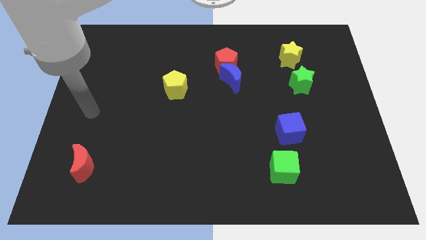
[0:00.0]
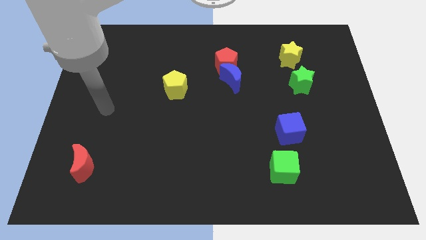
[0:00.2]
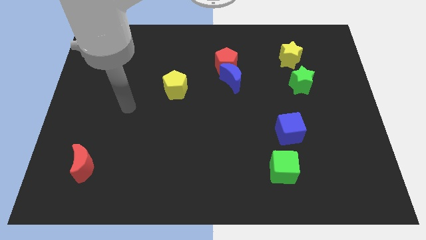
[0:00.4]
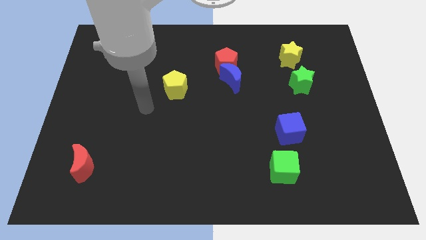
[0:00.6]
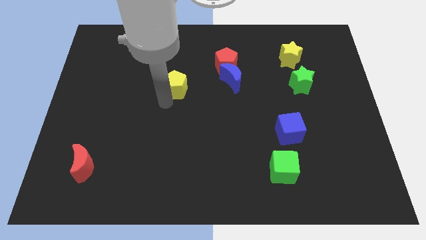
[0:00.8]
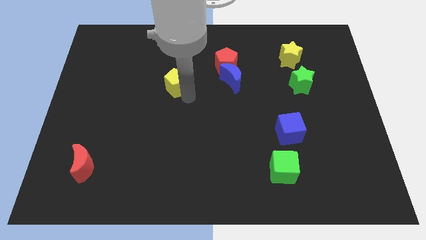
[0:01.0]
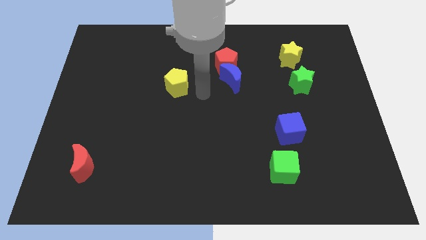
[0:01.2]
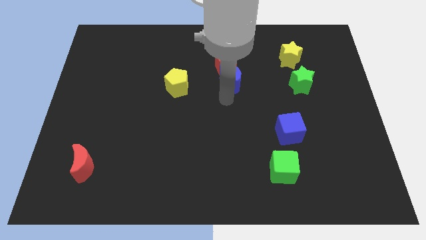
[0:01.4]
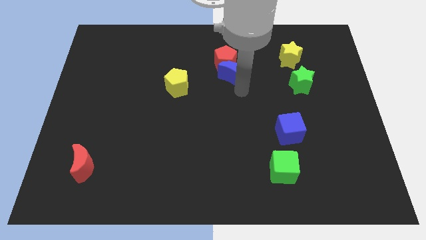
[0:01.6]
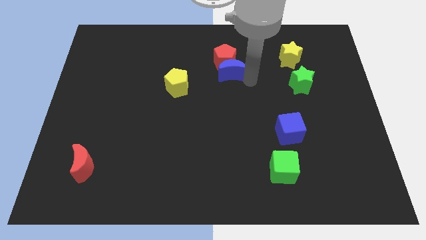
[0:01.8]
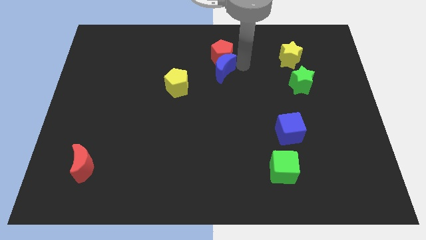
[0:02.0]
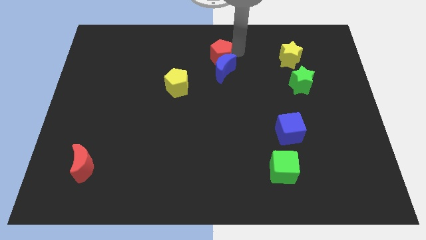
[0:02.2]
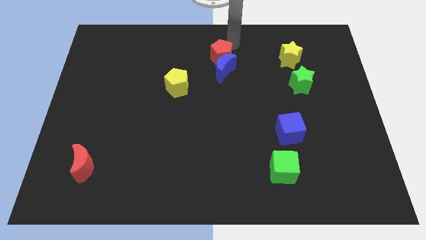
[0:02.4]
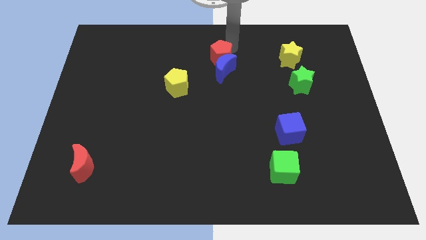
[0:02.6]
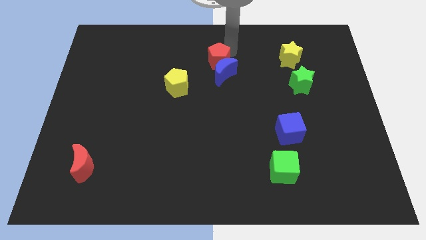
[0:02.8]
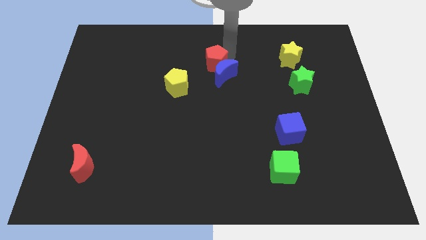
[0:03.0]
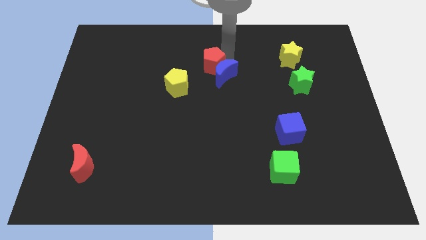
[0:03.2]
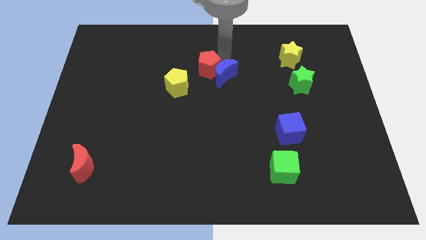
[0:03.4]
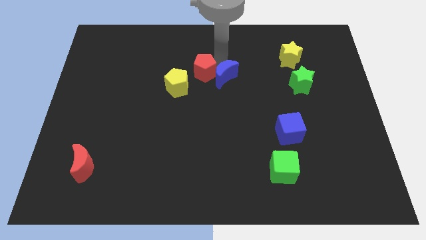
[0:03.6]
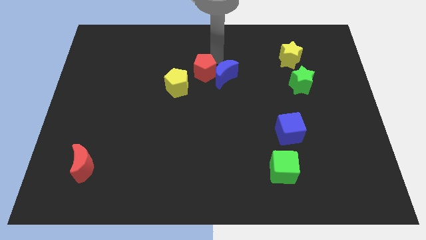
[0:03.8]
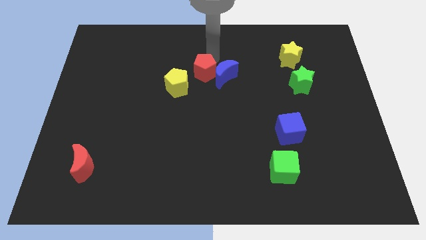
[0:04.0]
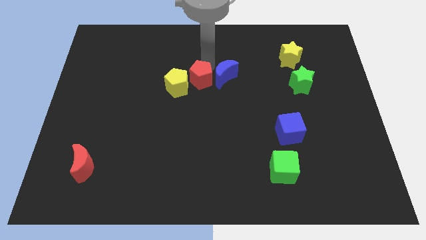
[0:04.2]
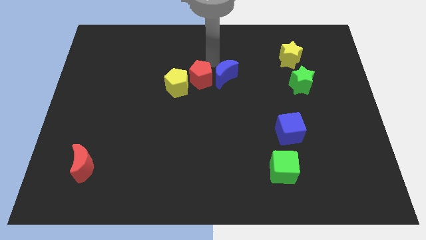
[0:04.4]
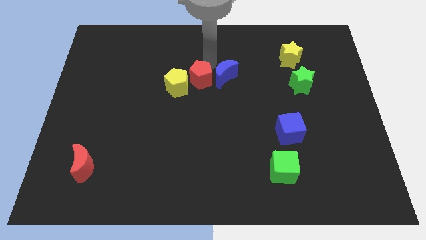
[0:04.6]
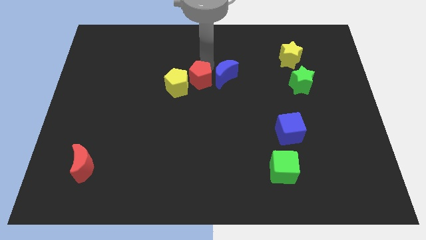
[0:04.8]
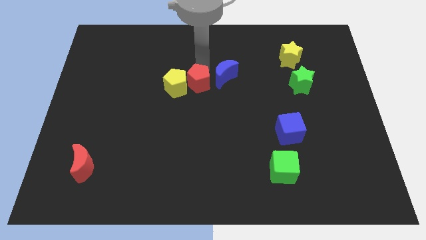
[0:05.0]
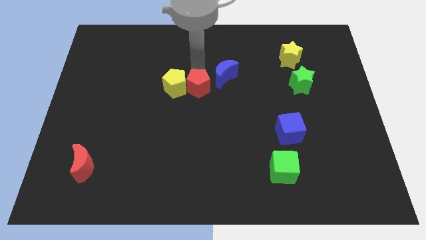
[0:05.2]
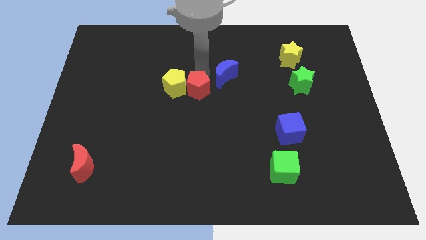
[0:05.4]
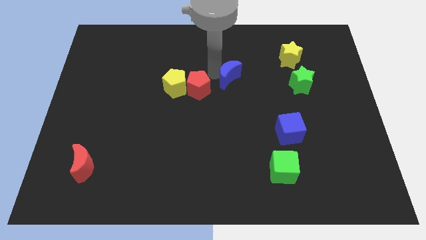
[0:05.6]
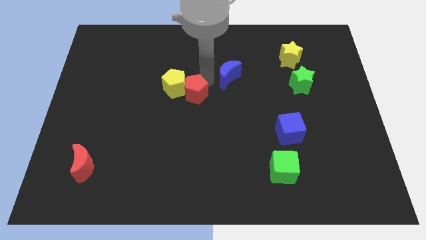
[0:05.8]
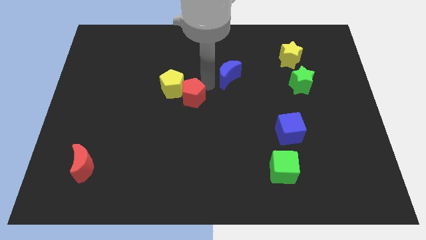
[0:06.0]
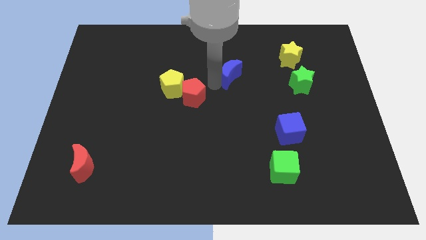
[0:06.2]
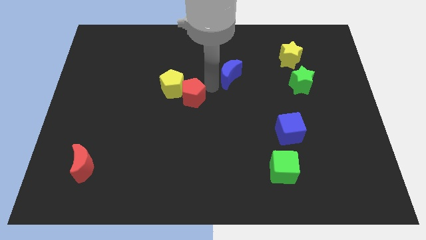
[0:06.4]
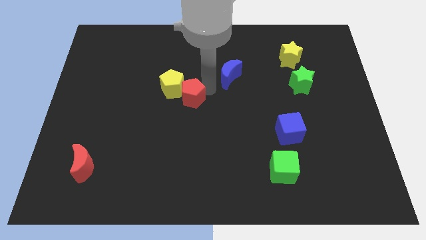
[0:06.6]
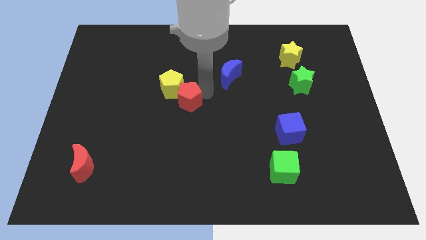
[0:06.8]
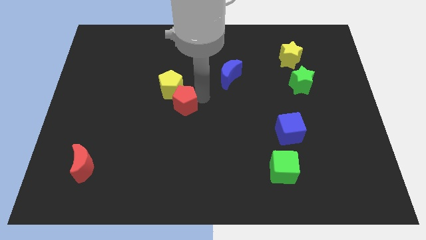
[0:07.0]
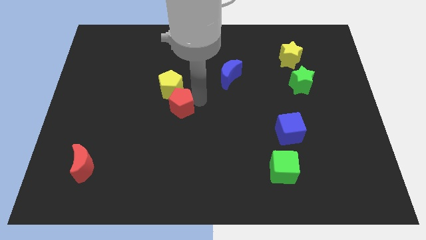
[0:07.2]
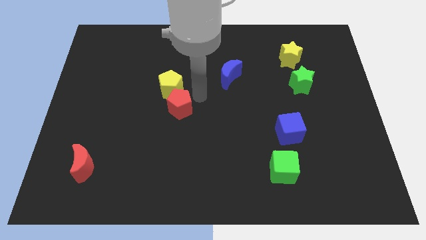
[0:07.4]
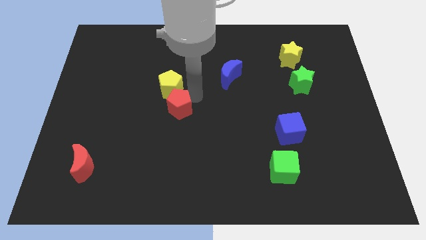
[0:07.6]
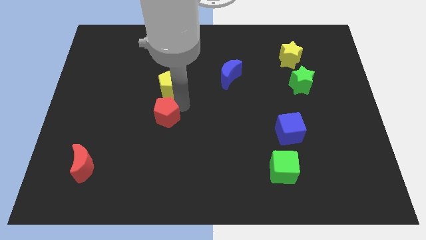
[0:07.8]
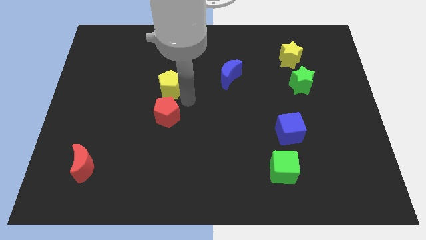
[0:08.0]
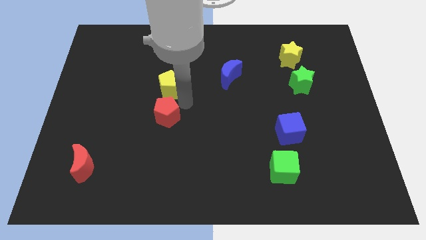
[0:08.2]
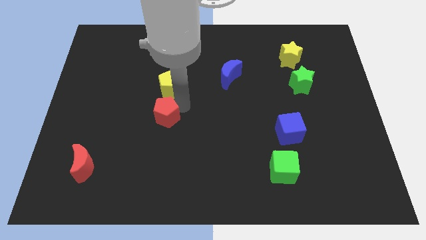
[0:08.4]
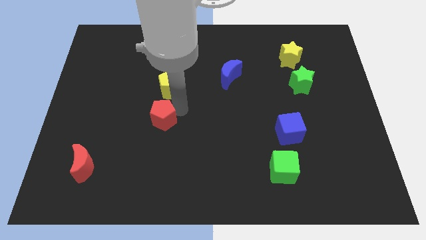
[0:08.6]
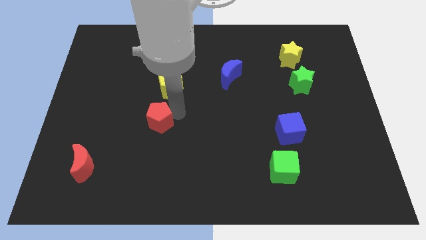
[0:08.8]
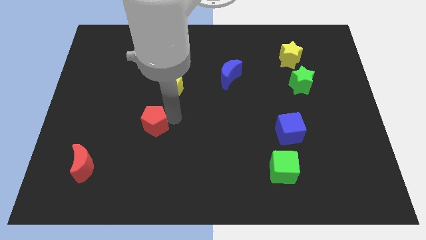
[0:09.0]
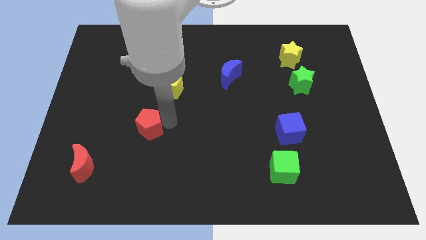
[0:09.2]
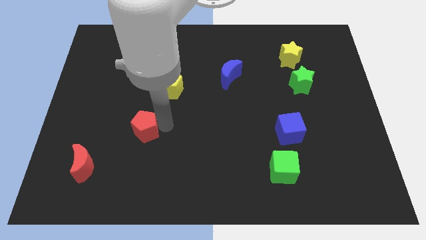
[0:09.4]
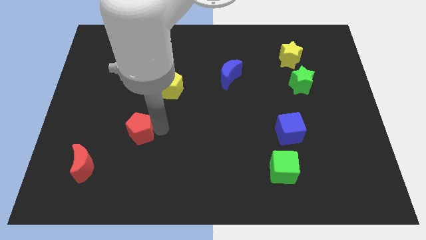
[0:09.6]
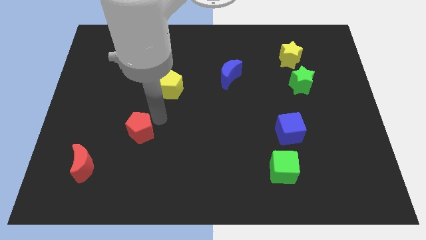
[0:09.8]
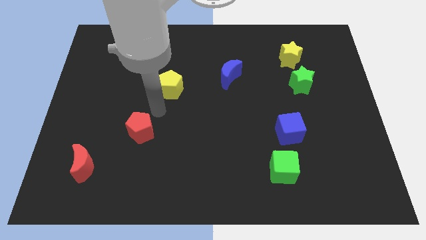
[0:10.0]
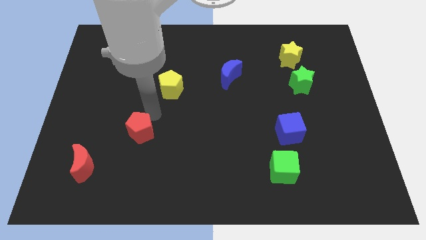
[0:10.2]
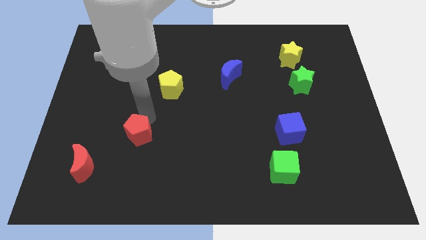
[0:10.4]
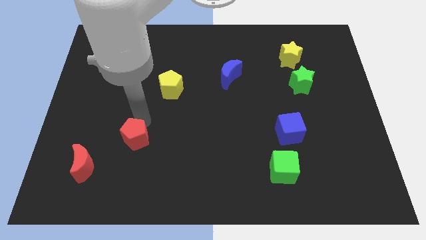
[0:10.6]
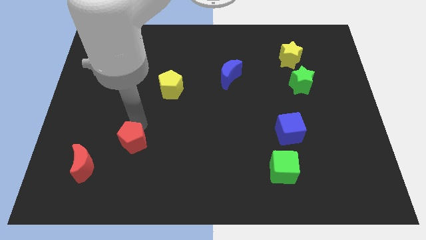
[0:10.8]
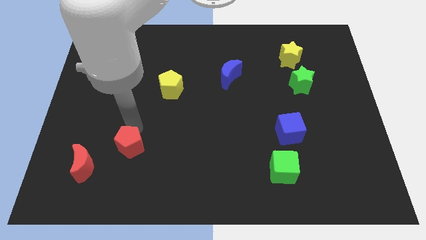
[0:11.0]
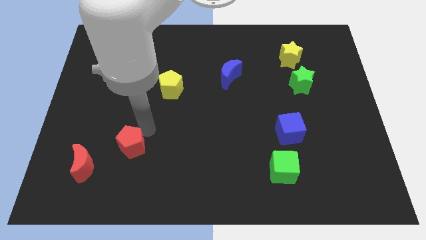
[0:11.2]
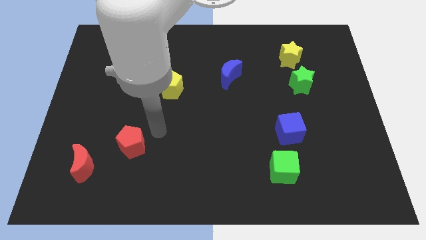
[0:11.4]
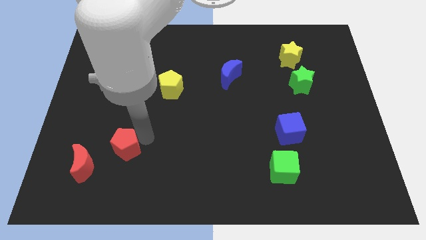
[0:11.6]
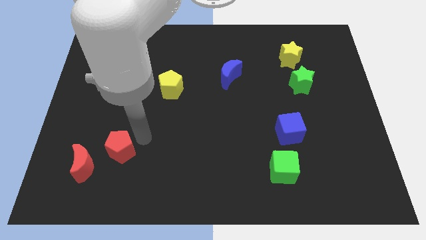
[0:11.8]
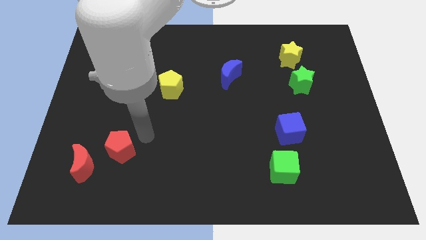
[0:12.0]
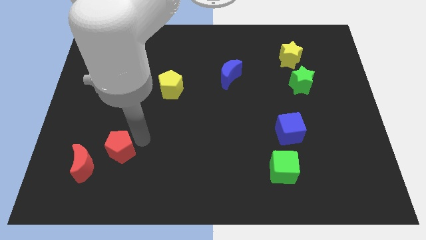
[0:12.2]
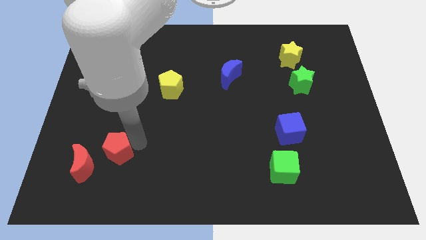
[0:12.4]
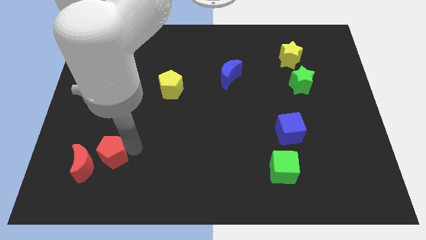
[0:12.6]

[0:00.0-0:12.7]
put the red pentagon to the red moon

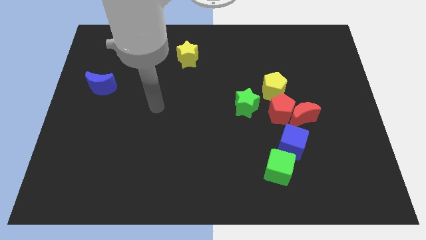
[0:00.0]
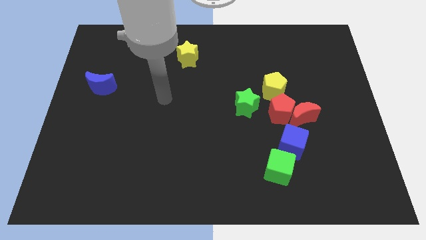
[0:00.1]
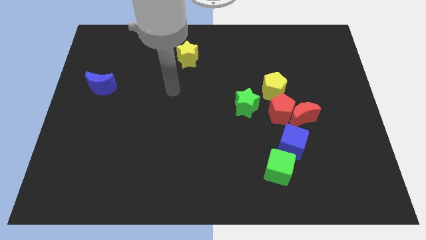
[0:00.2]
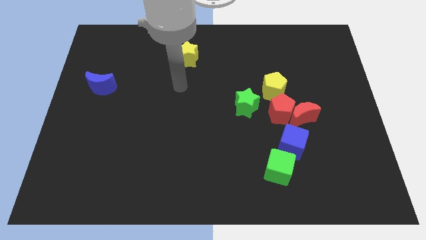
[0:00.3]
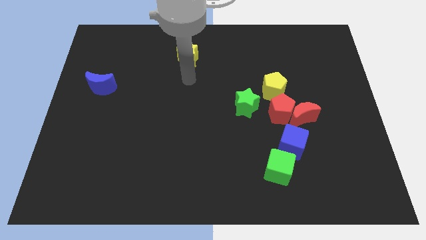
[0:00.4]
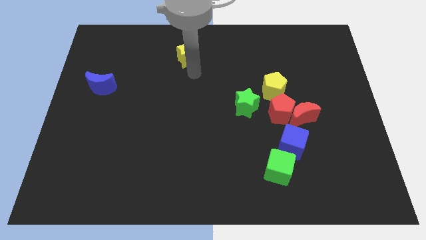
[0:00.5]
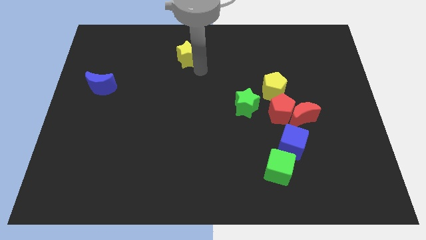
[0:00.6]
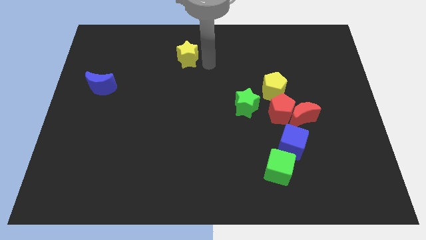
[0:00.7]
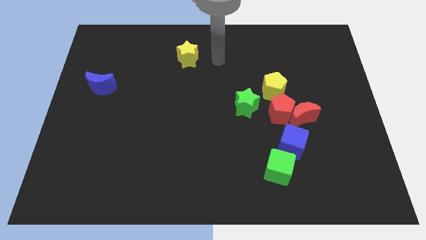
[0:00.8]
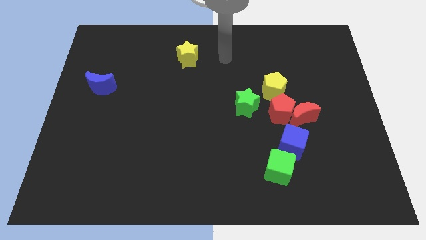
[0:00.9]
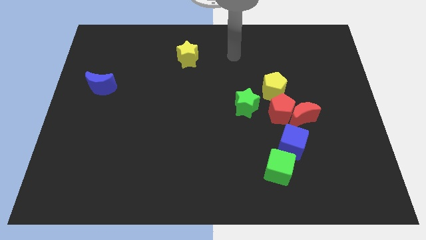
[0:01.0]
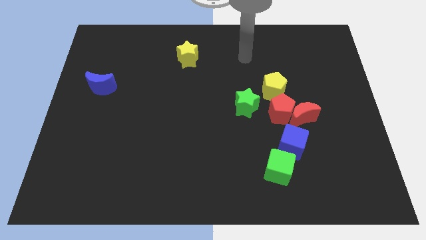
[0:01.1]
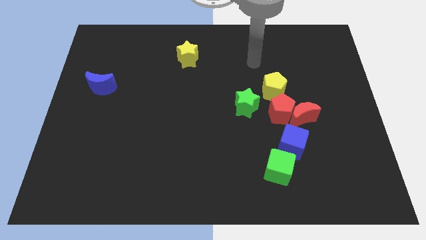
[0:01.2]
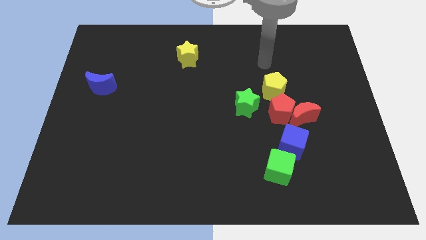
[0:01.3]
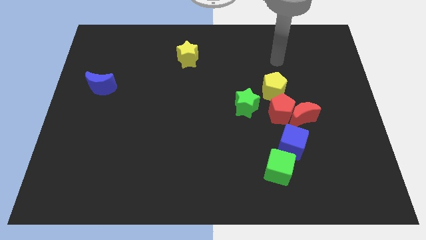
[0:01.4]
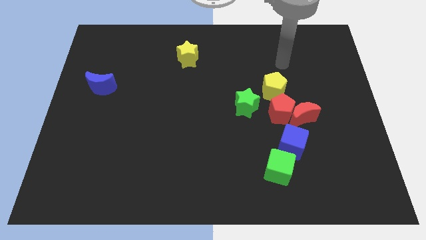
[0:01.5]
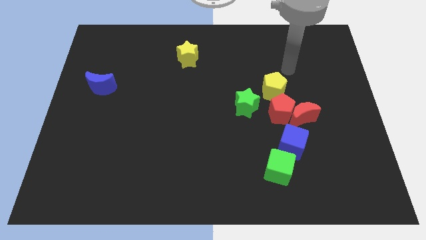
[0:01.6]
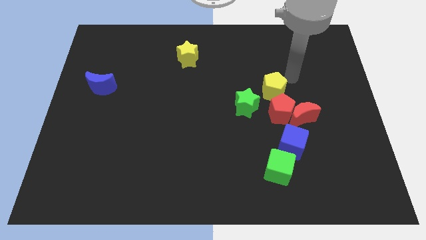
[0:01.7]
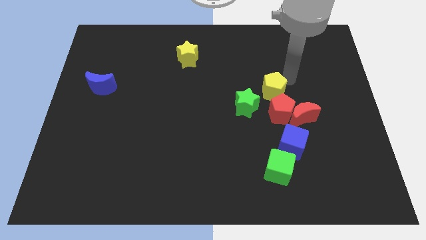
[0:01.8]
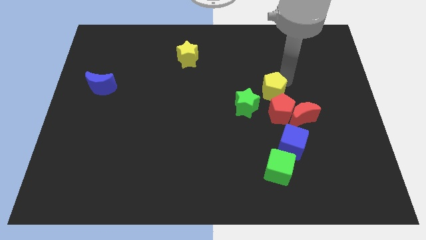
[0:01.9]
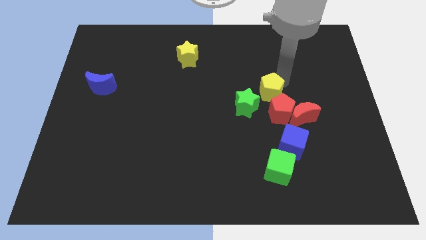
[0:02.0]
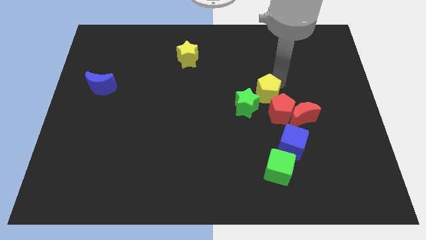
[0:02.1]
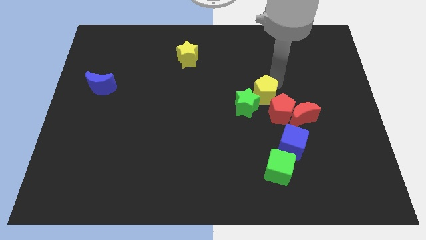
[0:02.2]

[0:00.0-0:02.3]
slide the yellow pentagon next to the green star
